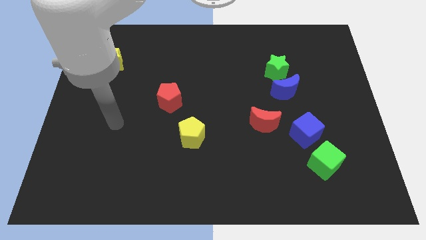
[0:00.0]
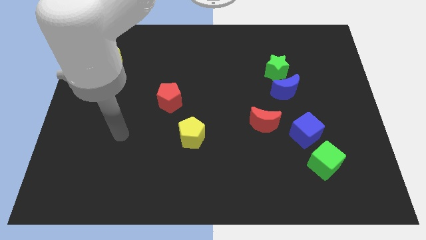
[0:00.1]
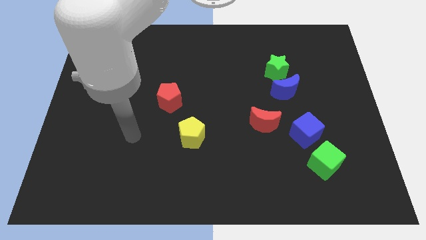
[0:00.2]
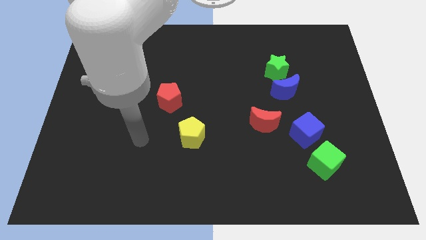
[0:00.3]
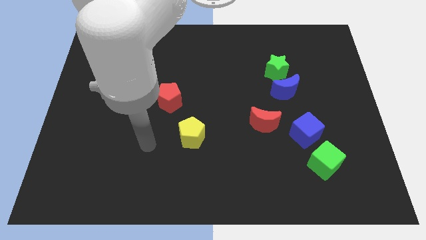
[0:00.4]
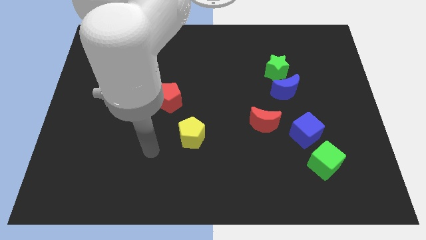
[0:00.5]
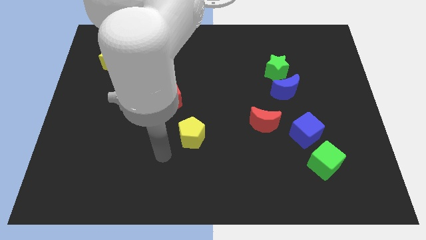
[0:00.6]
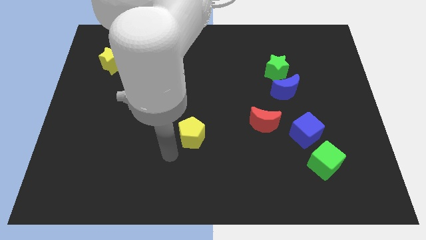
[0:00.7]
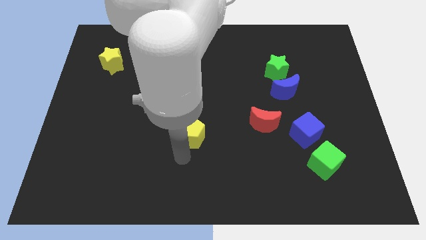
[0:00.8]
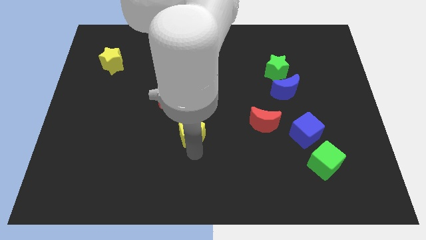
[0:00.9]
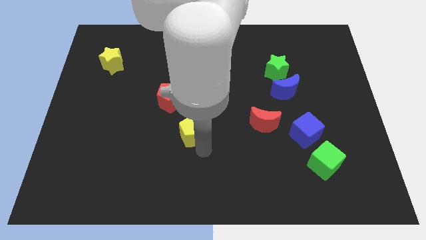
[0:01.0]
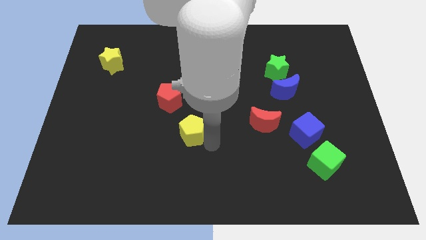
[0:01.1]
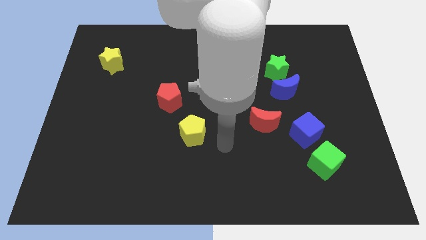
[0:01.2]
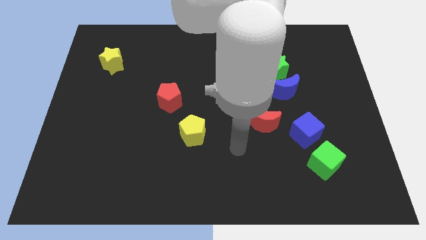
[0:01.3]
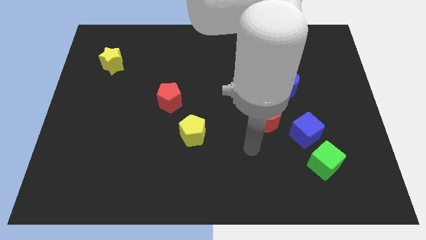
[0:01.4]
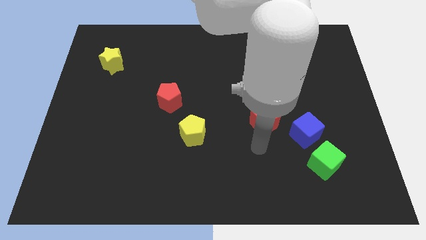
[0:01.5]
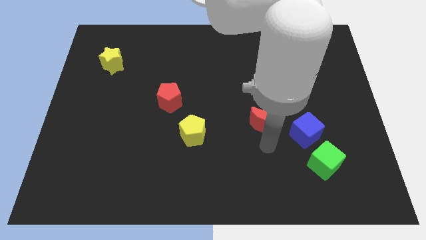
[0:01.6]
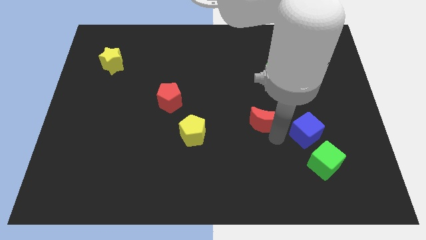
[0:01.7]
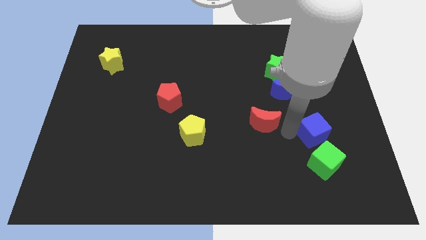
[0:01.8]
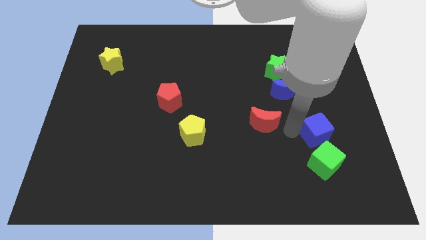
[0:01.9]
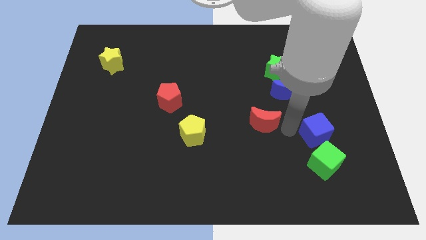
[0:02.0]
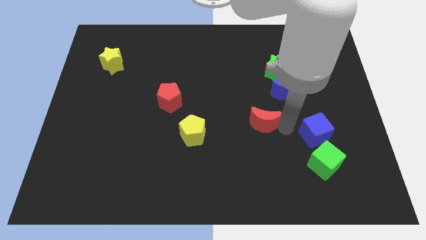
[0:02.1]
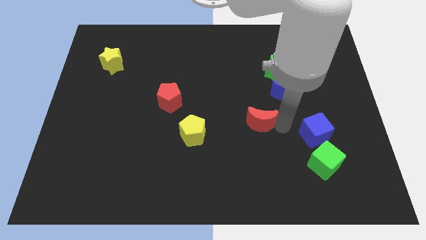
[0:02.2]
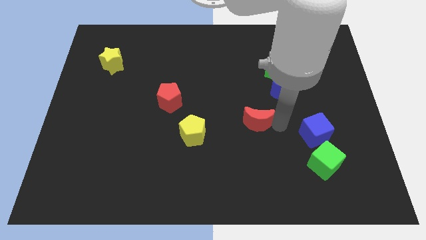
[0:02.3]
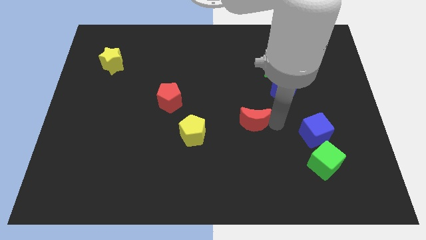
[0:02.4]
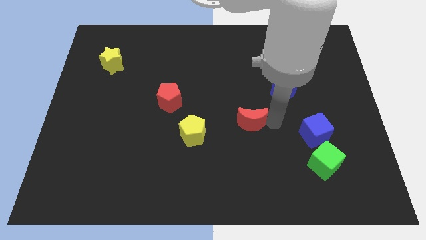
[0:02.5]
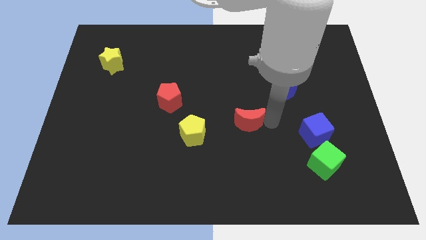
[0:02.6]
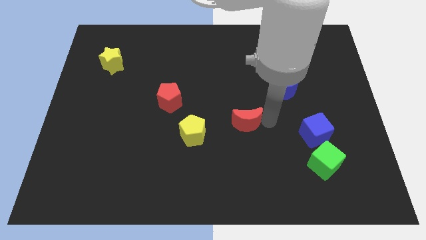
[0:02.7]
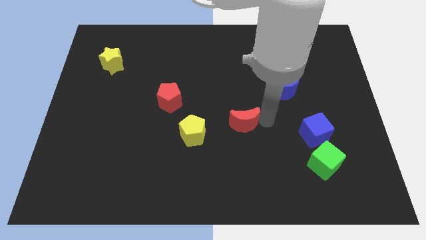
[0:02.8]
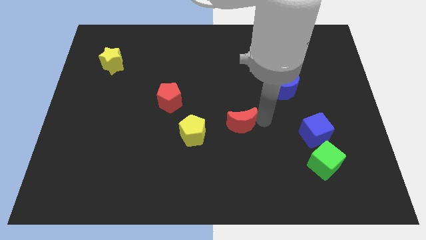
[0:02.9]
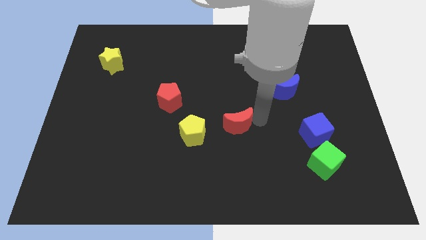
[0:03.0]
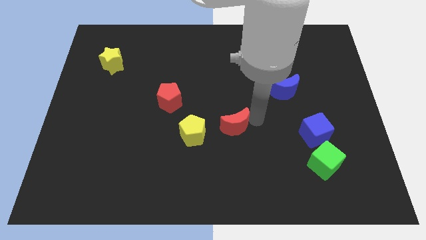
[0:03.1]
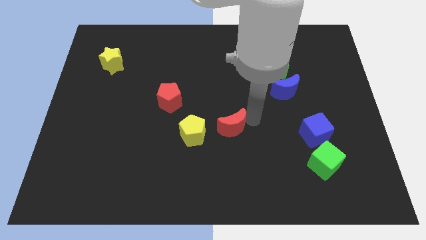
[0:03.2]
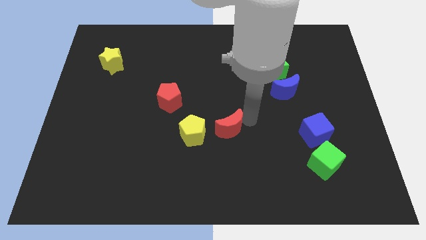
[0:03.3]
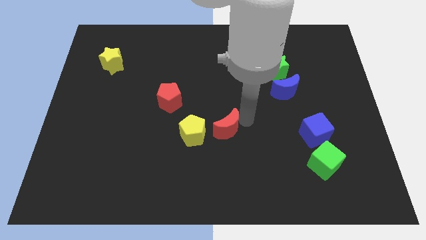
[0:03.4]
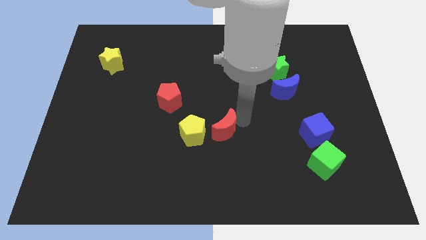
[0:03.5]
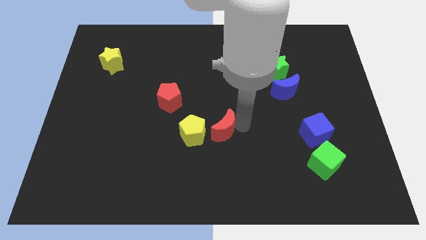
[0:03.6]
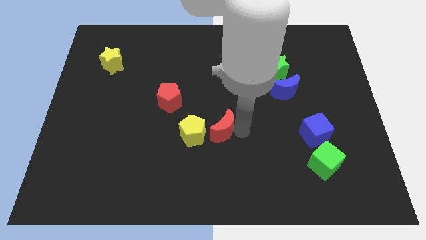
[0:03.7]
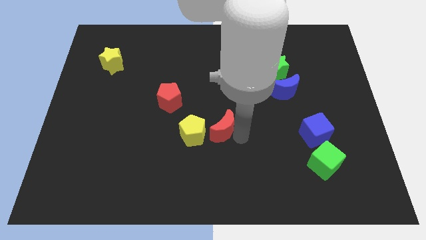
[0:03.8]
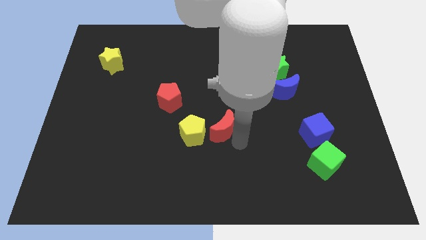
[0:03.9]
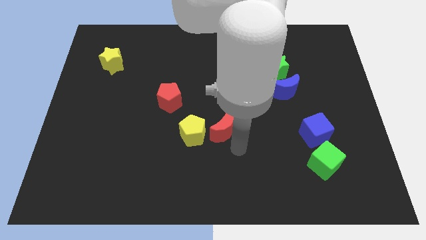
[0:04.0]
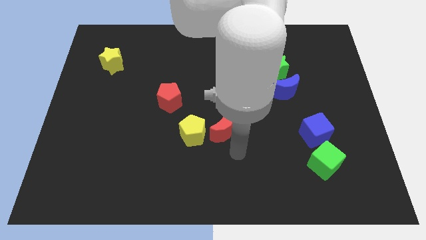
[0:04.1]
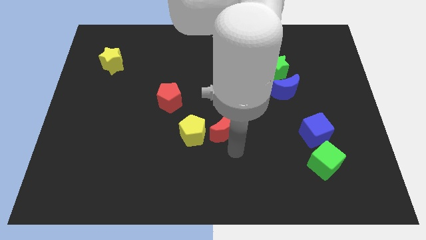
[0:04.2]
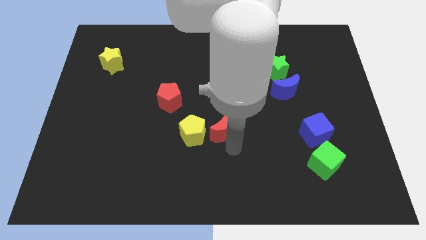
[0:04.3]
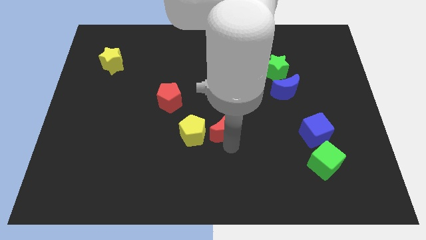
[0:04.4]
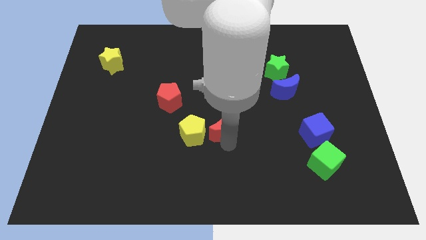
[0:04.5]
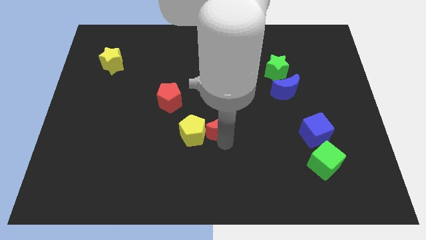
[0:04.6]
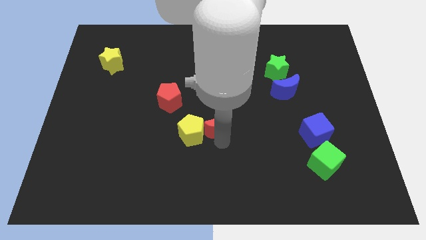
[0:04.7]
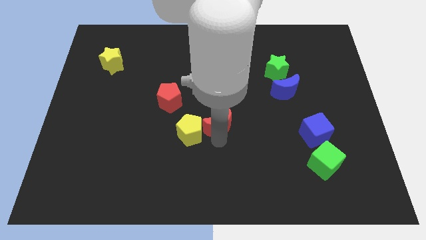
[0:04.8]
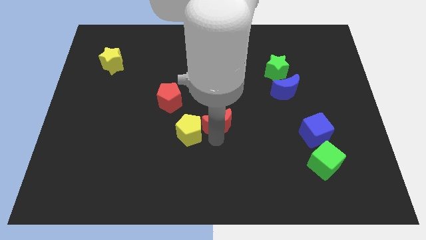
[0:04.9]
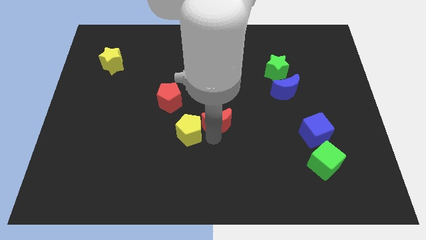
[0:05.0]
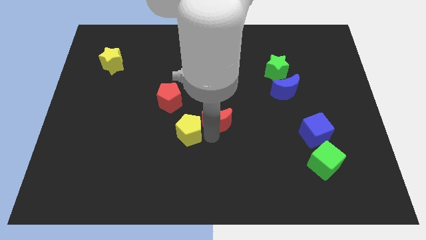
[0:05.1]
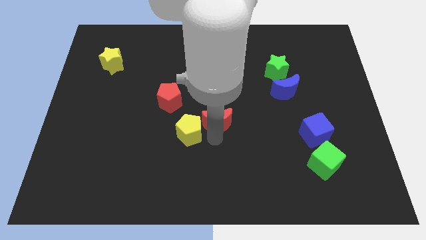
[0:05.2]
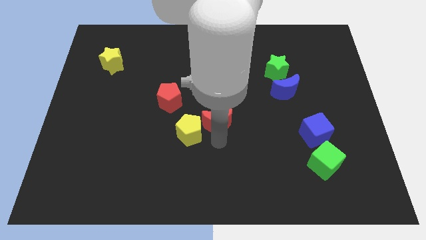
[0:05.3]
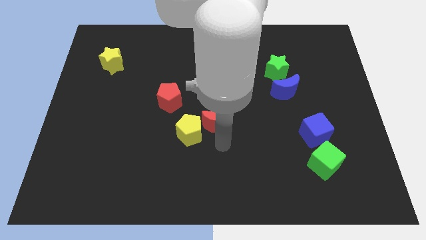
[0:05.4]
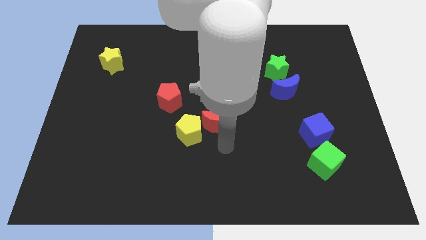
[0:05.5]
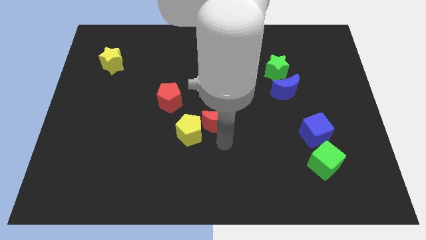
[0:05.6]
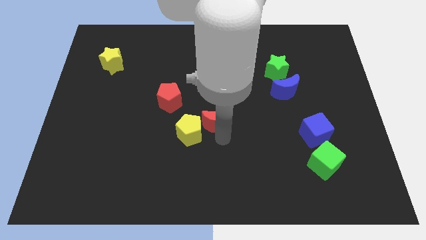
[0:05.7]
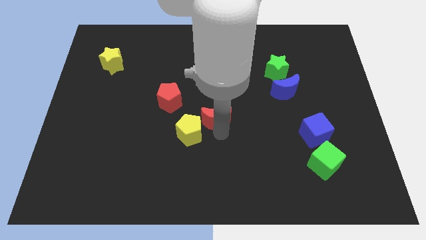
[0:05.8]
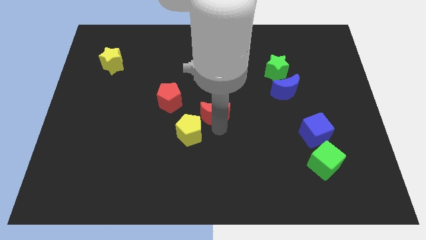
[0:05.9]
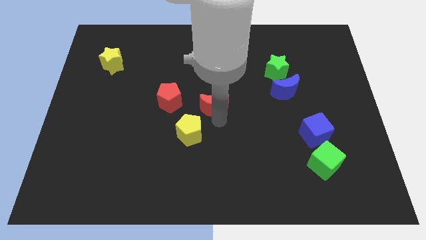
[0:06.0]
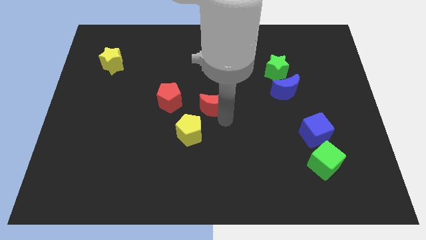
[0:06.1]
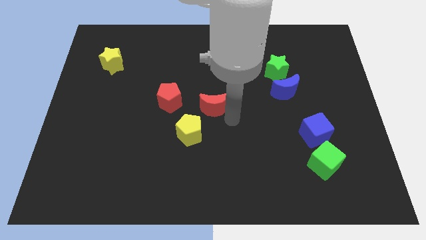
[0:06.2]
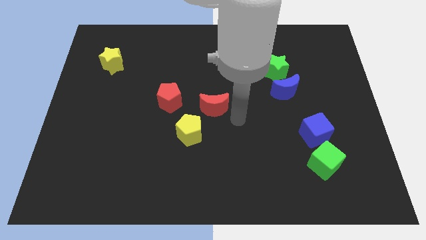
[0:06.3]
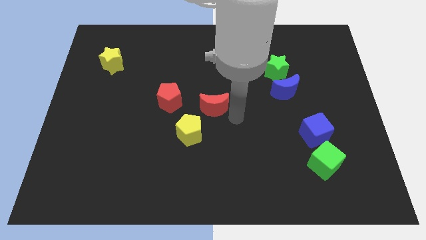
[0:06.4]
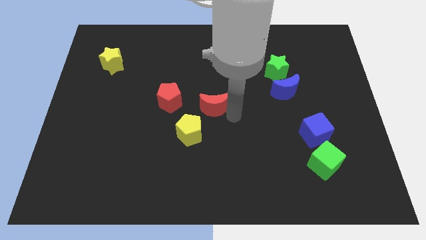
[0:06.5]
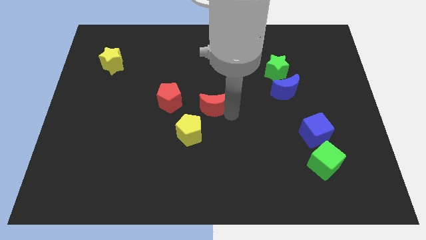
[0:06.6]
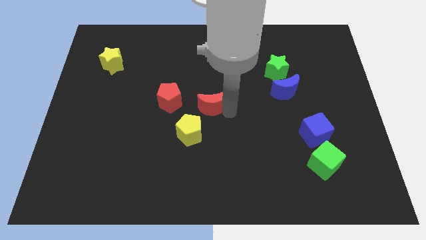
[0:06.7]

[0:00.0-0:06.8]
put the red moon to the top of the yellow pentagon
